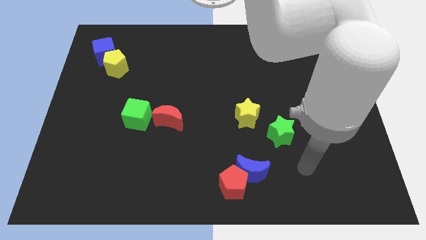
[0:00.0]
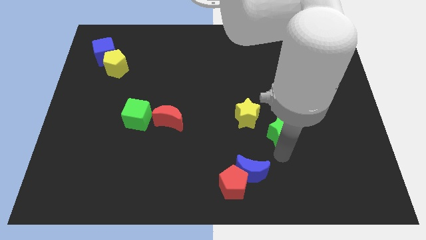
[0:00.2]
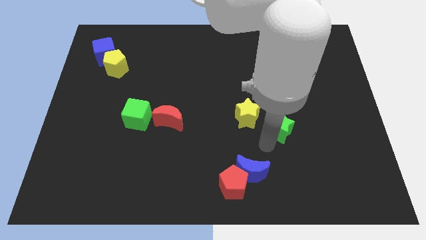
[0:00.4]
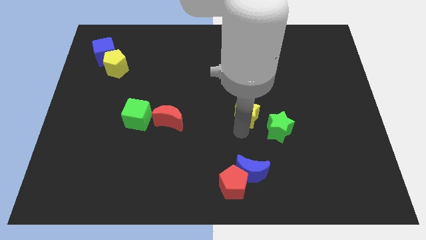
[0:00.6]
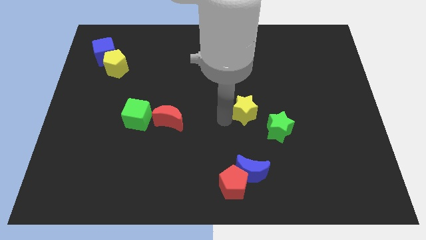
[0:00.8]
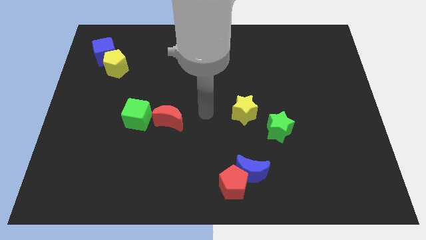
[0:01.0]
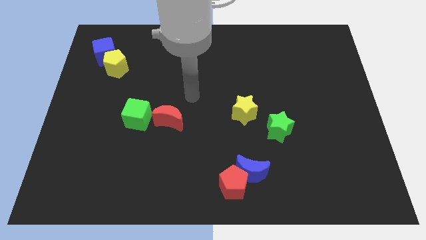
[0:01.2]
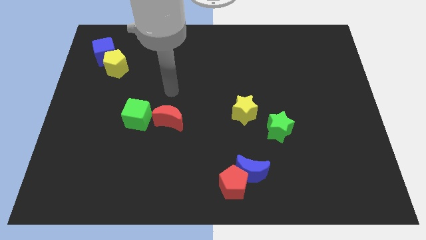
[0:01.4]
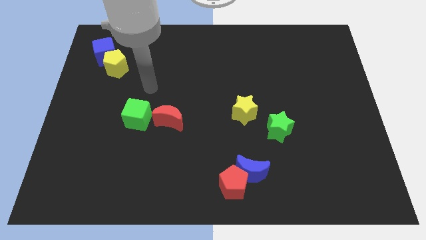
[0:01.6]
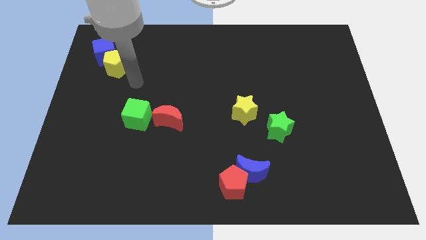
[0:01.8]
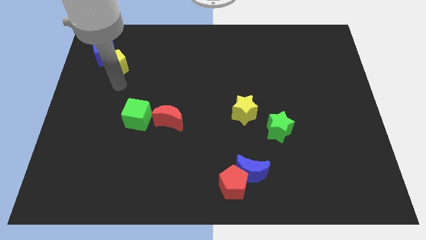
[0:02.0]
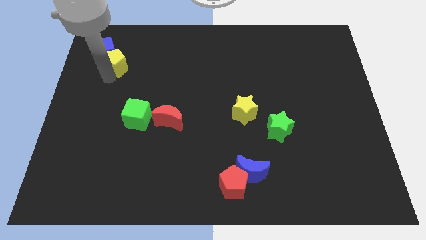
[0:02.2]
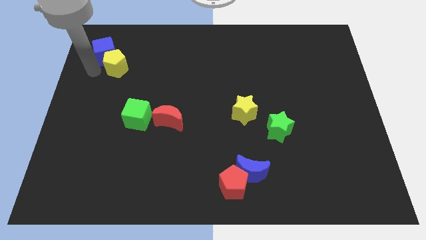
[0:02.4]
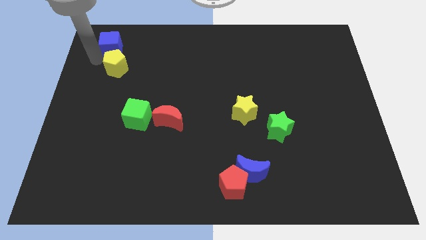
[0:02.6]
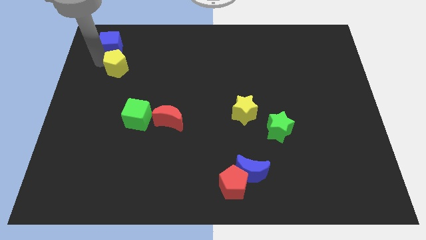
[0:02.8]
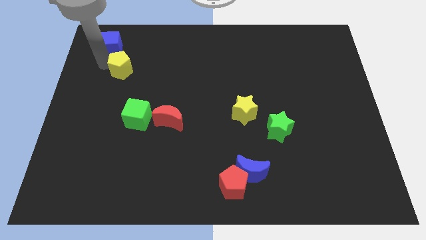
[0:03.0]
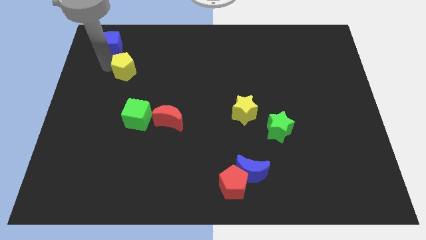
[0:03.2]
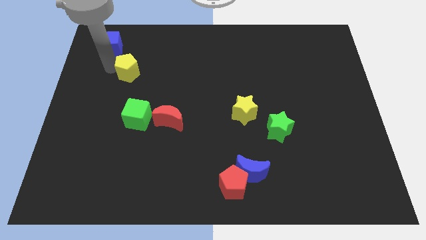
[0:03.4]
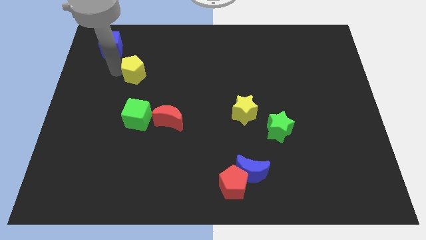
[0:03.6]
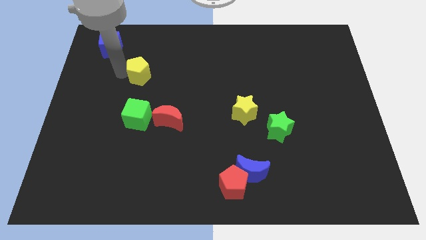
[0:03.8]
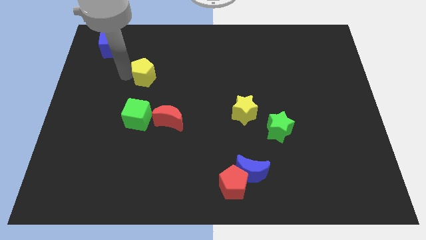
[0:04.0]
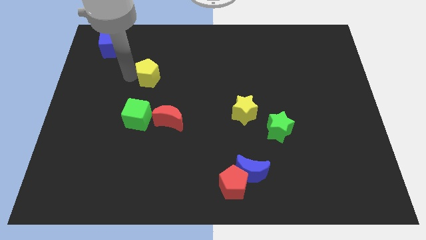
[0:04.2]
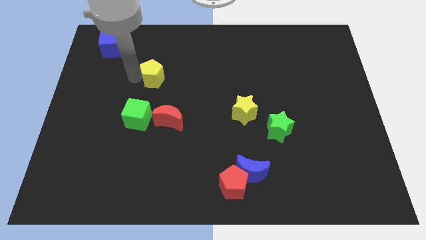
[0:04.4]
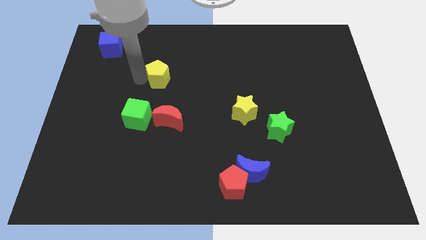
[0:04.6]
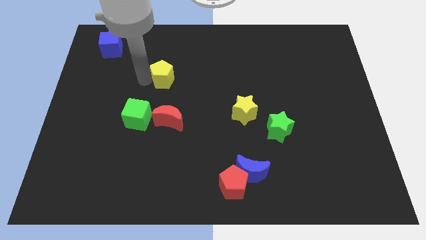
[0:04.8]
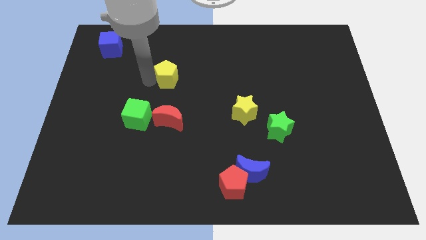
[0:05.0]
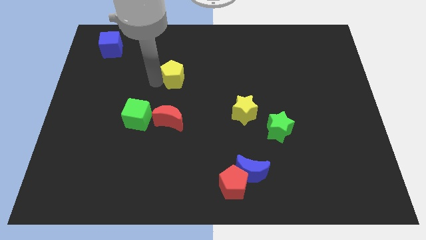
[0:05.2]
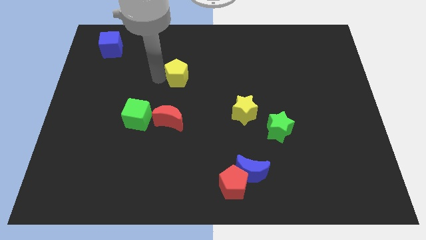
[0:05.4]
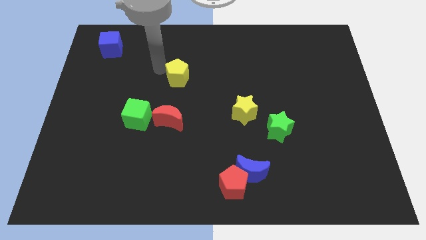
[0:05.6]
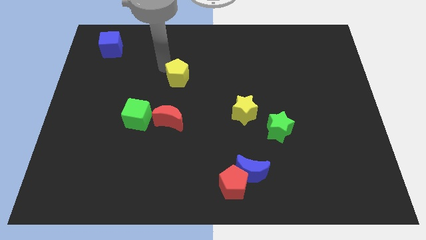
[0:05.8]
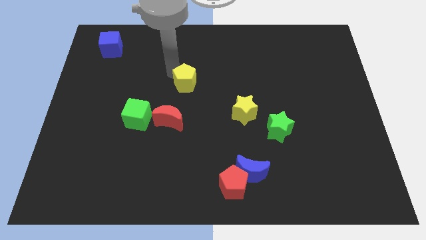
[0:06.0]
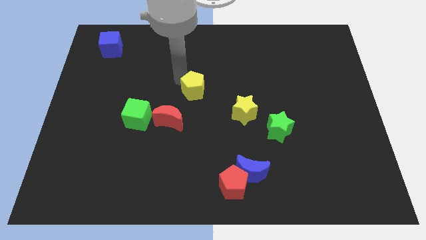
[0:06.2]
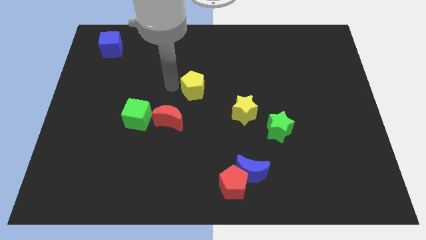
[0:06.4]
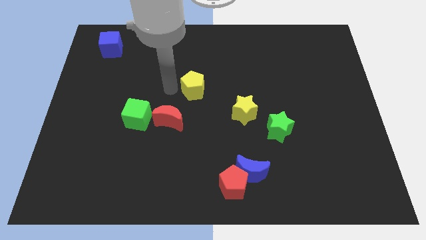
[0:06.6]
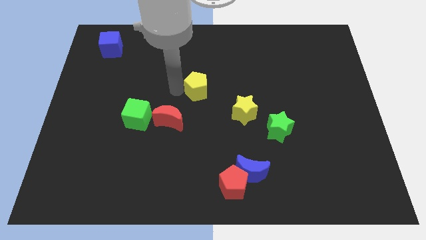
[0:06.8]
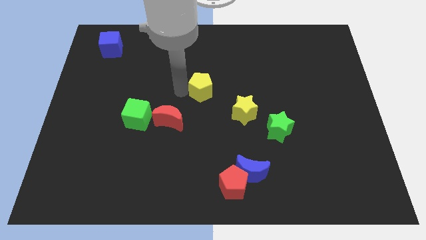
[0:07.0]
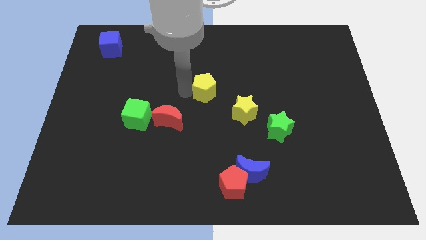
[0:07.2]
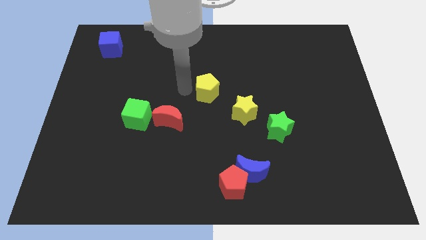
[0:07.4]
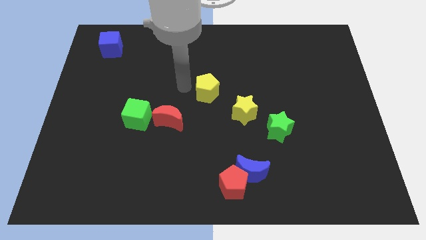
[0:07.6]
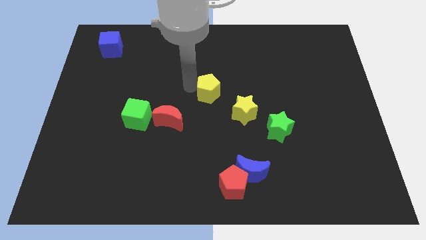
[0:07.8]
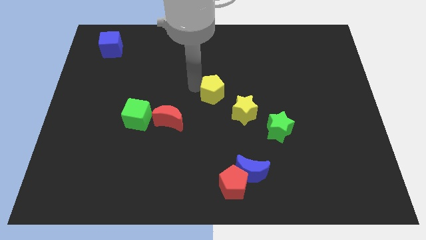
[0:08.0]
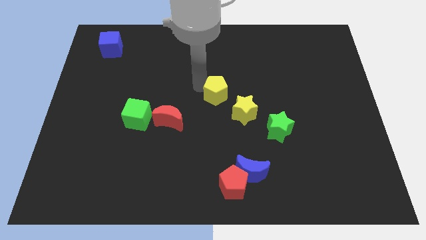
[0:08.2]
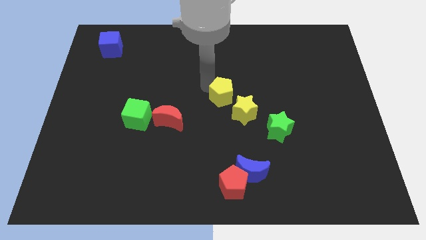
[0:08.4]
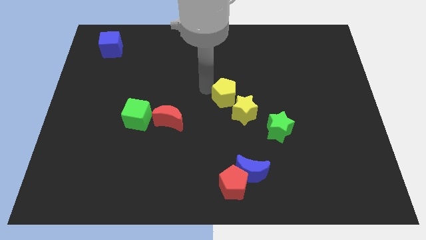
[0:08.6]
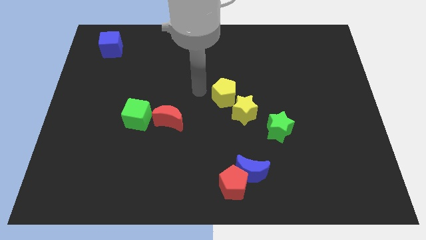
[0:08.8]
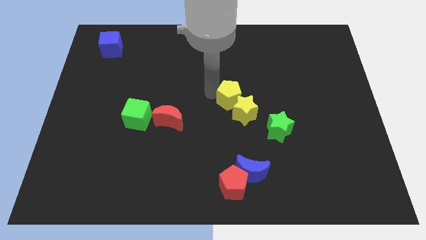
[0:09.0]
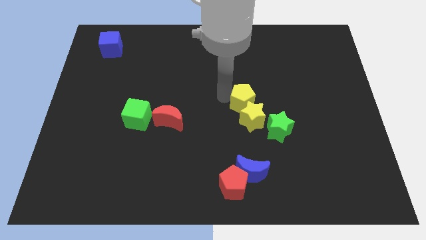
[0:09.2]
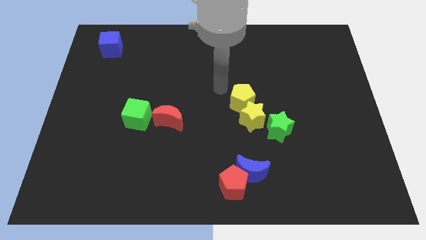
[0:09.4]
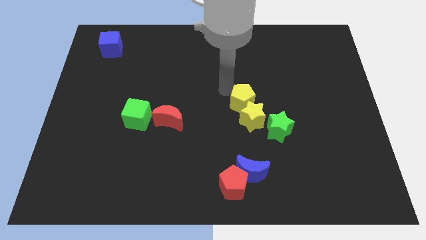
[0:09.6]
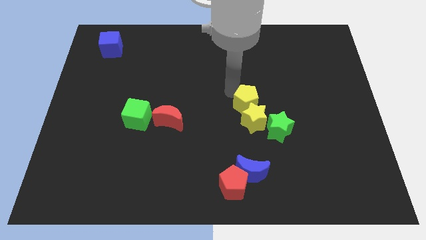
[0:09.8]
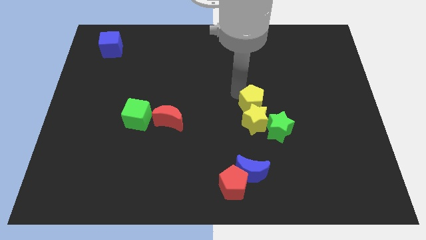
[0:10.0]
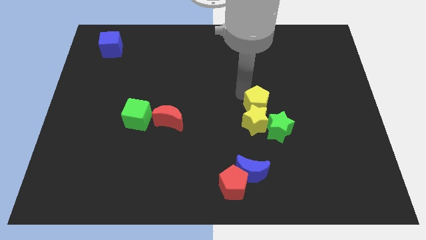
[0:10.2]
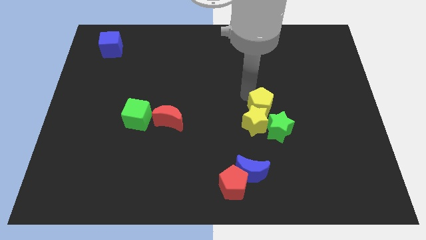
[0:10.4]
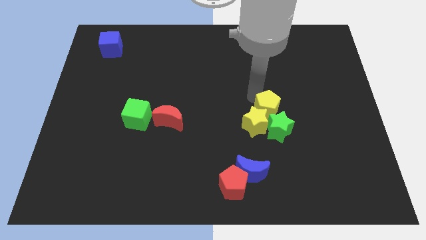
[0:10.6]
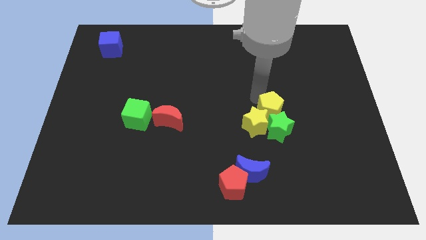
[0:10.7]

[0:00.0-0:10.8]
slide the yellow pentagon towards the green star

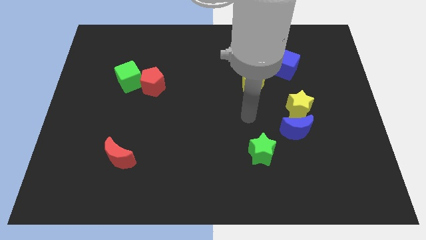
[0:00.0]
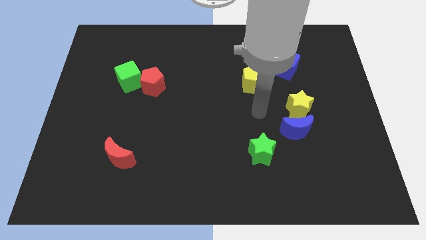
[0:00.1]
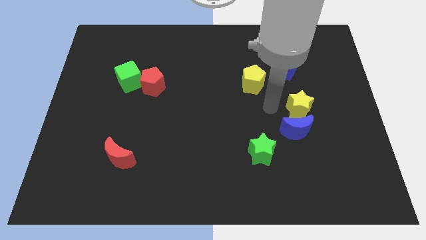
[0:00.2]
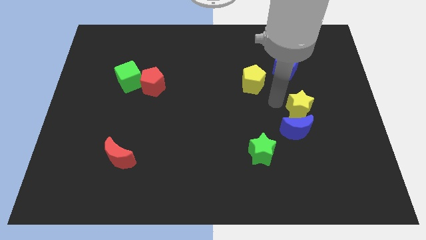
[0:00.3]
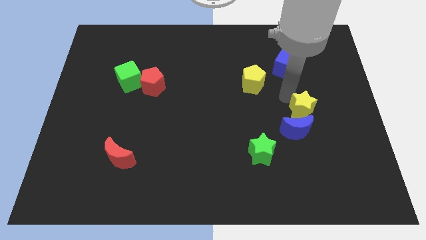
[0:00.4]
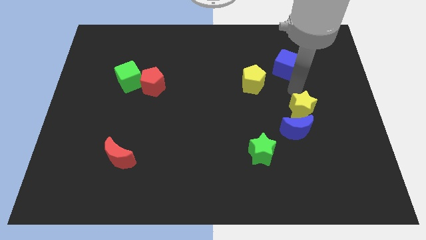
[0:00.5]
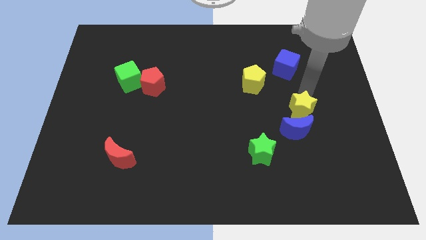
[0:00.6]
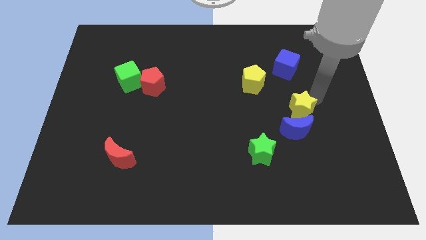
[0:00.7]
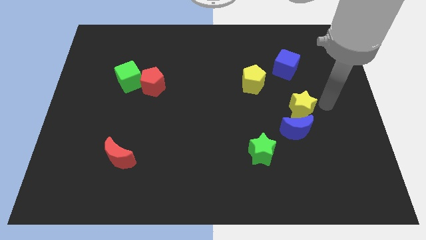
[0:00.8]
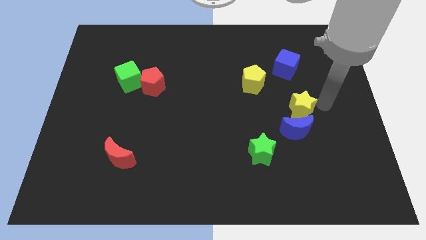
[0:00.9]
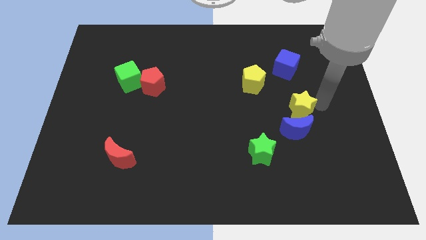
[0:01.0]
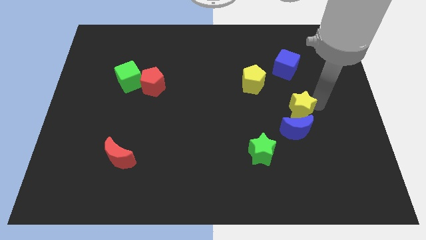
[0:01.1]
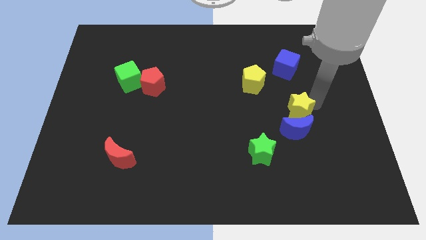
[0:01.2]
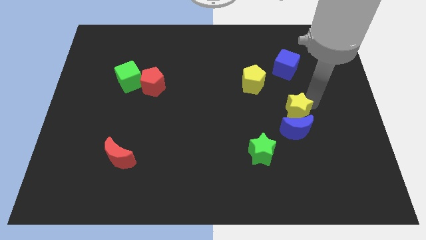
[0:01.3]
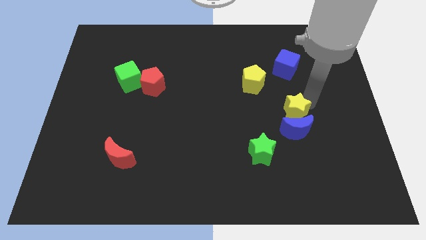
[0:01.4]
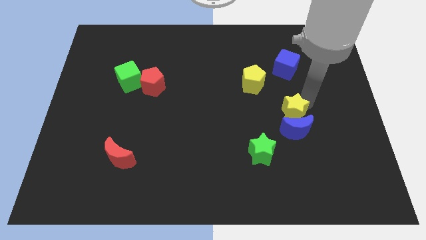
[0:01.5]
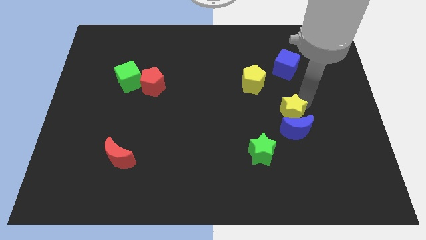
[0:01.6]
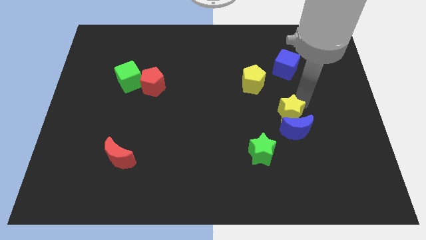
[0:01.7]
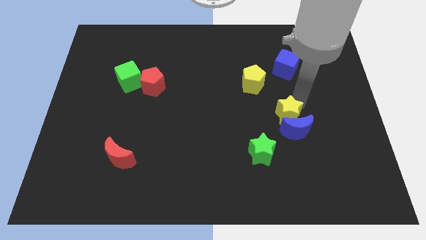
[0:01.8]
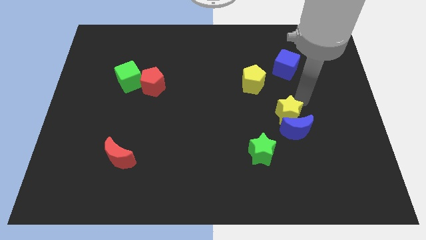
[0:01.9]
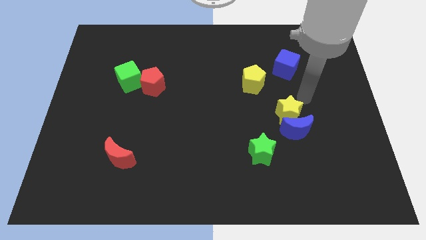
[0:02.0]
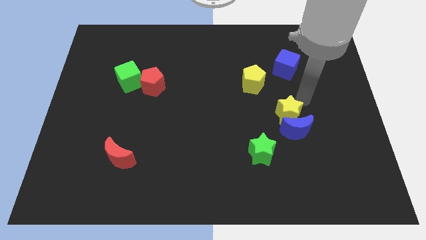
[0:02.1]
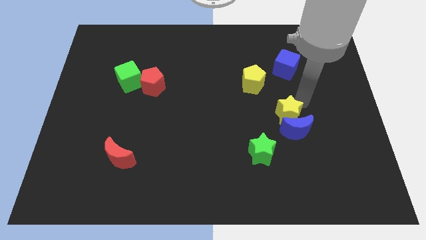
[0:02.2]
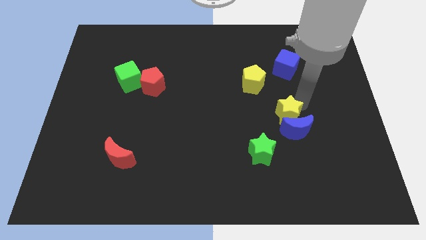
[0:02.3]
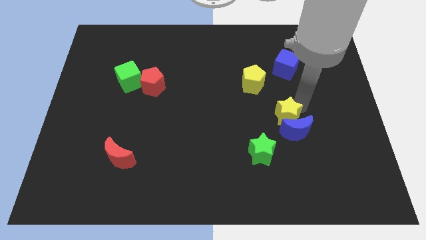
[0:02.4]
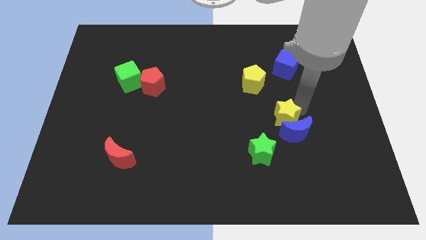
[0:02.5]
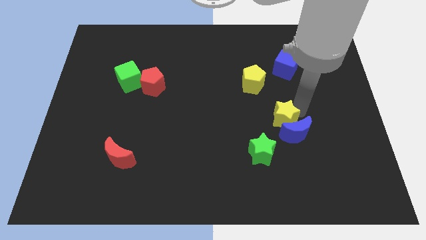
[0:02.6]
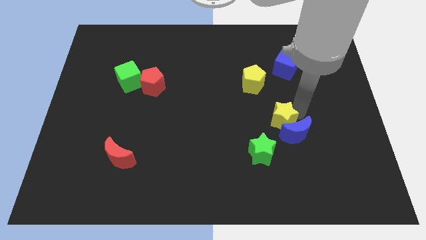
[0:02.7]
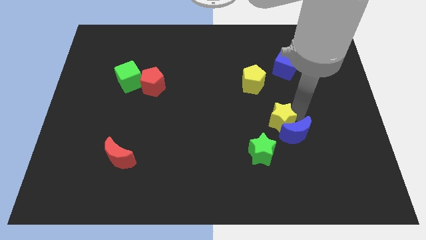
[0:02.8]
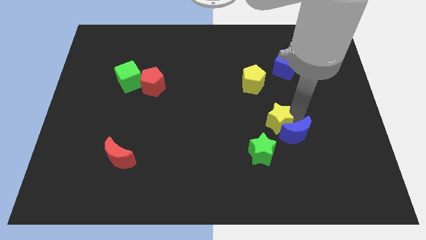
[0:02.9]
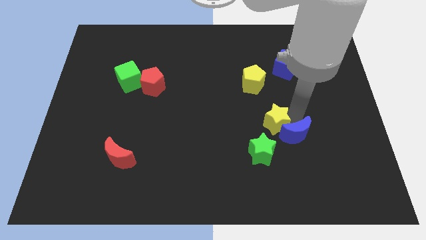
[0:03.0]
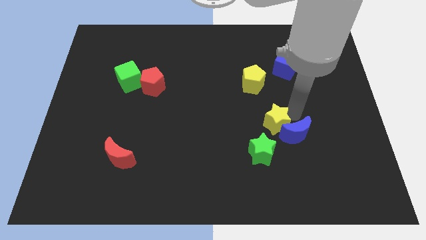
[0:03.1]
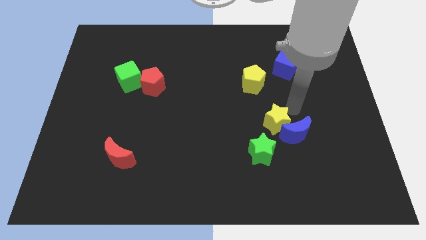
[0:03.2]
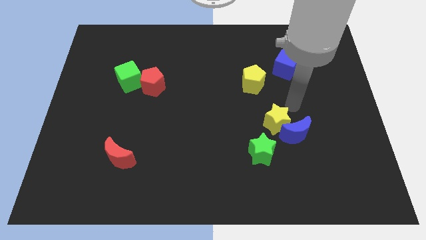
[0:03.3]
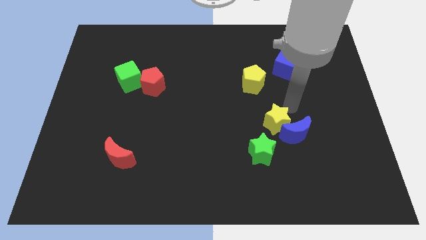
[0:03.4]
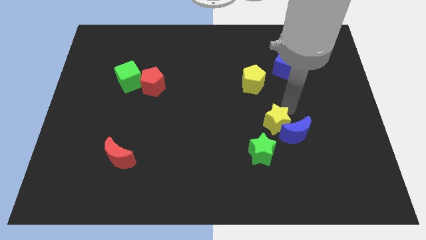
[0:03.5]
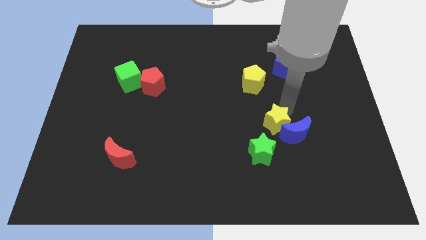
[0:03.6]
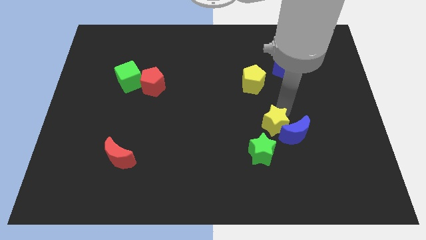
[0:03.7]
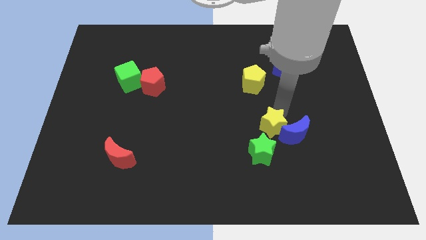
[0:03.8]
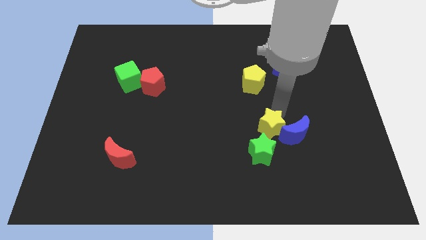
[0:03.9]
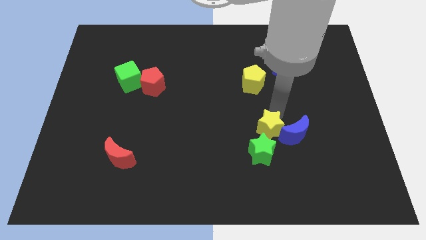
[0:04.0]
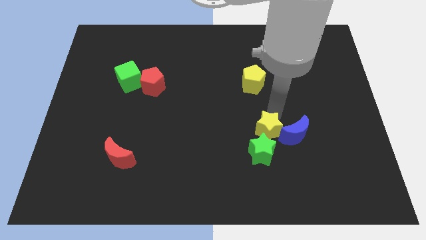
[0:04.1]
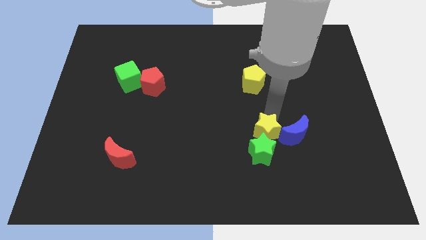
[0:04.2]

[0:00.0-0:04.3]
move the yellow star towards the green star
